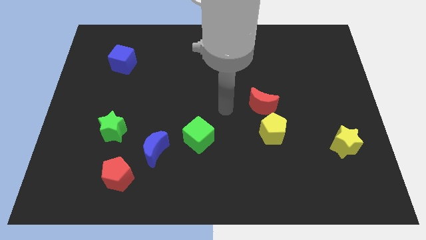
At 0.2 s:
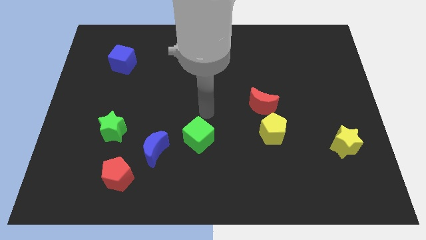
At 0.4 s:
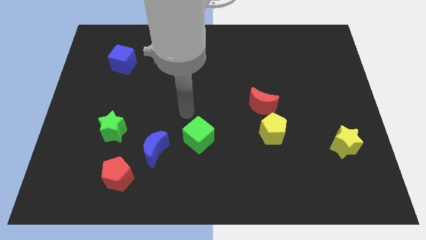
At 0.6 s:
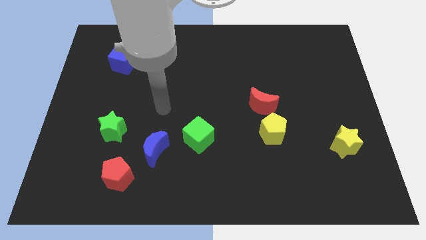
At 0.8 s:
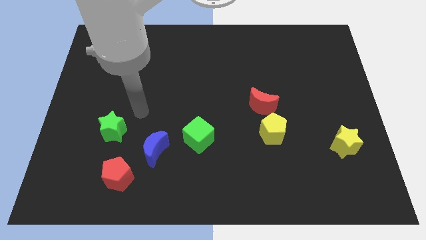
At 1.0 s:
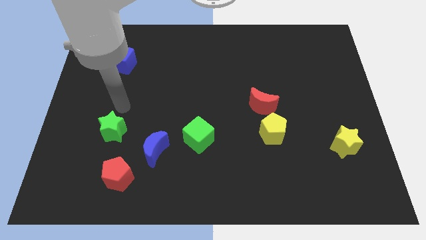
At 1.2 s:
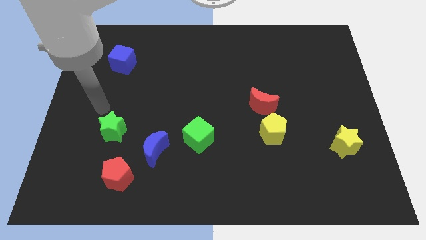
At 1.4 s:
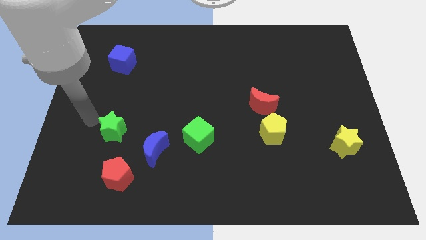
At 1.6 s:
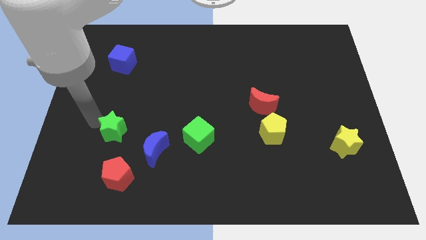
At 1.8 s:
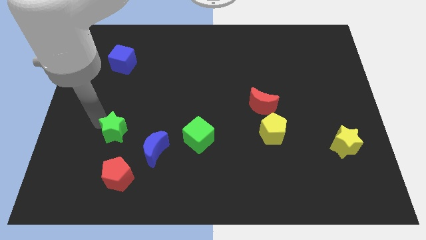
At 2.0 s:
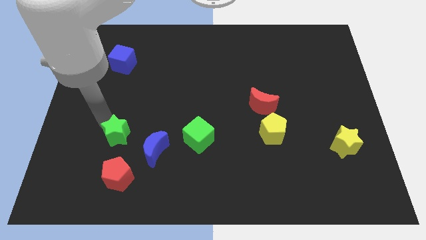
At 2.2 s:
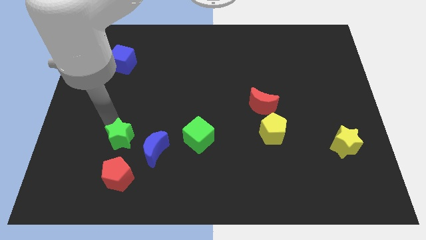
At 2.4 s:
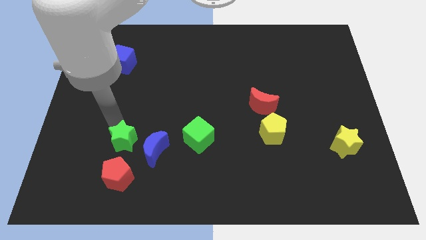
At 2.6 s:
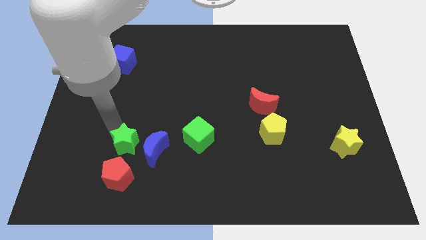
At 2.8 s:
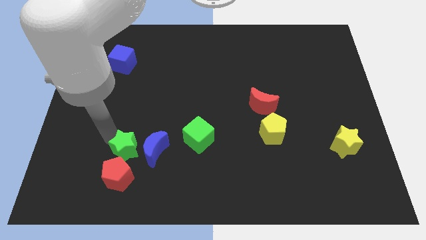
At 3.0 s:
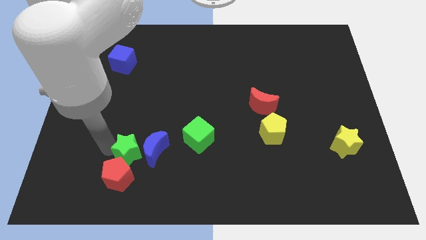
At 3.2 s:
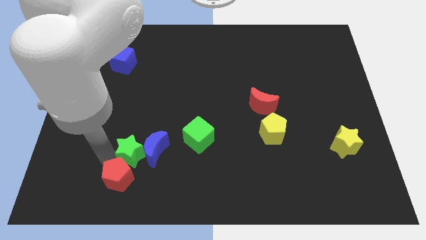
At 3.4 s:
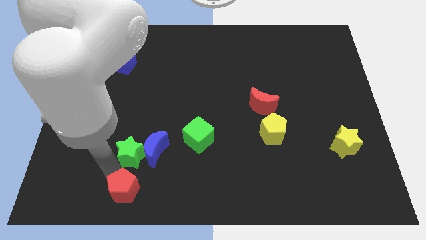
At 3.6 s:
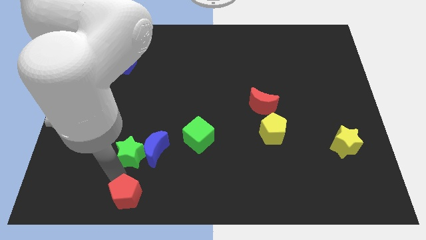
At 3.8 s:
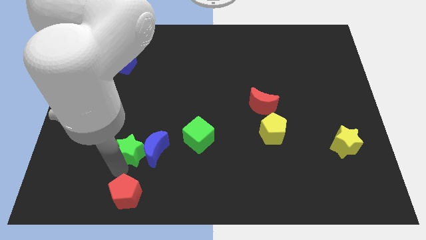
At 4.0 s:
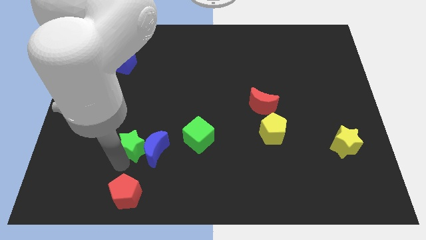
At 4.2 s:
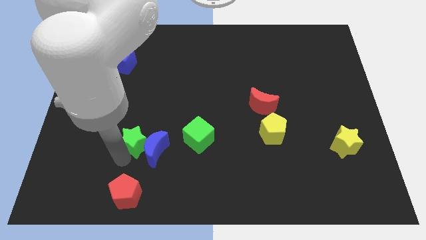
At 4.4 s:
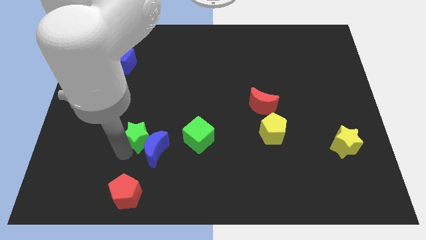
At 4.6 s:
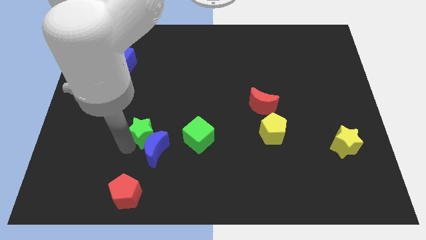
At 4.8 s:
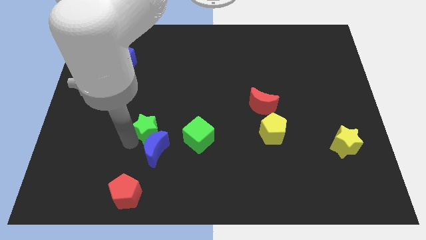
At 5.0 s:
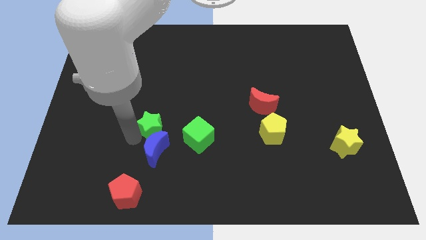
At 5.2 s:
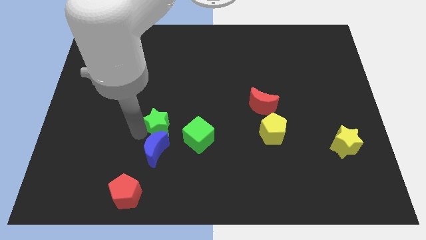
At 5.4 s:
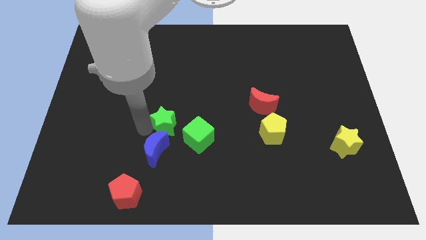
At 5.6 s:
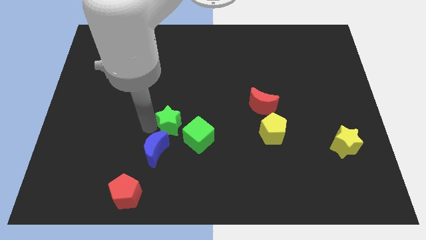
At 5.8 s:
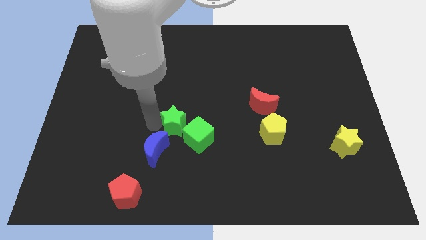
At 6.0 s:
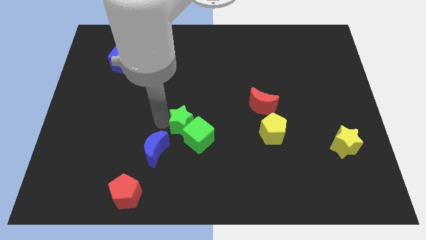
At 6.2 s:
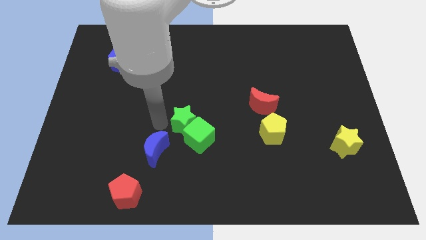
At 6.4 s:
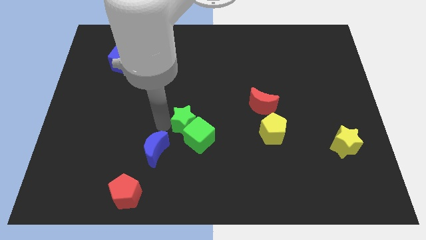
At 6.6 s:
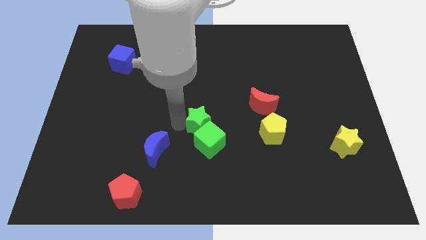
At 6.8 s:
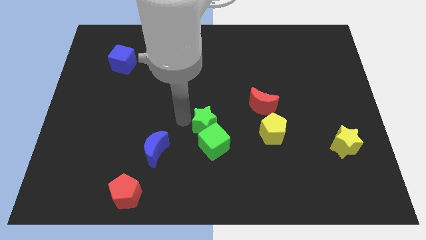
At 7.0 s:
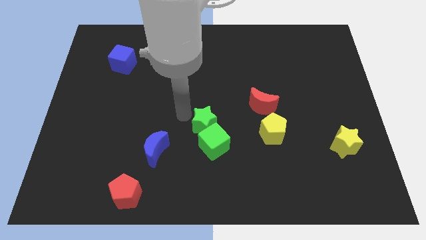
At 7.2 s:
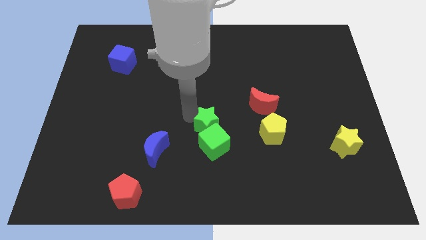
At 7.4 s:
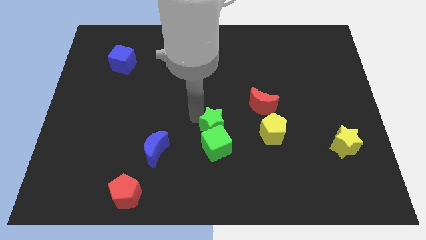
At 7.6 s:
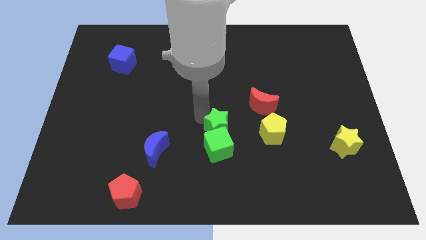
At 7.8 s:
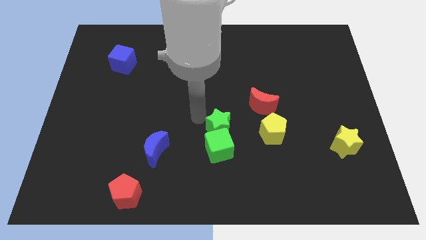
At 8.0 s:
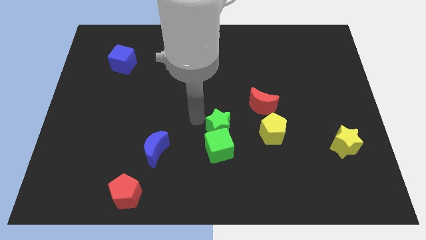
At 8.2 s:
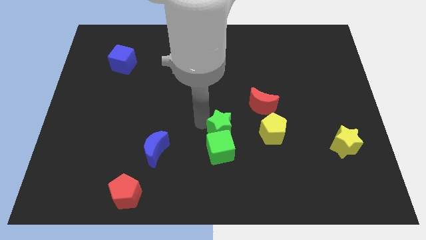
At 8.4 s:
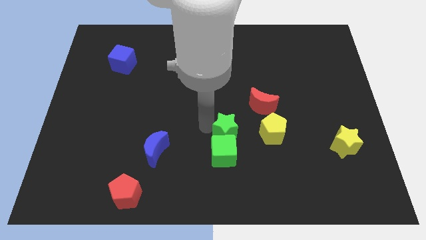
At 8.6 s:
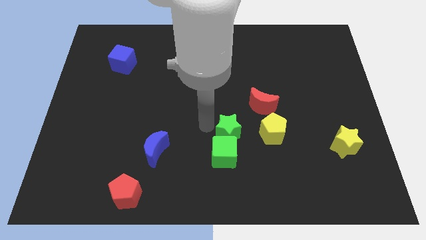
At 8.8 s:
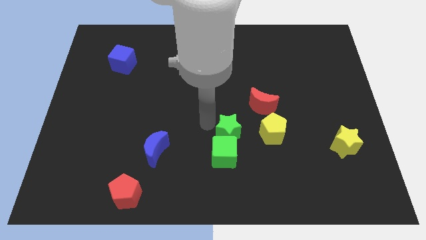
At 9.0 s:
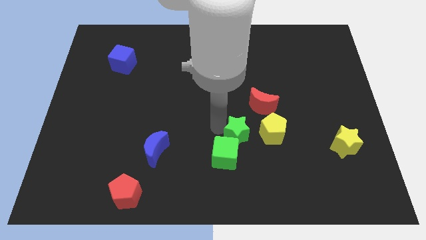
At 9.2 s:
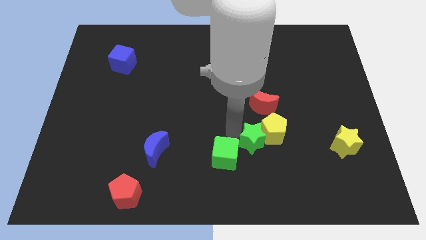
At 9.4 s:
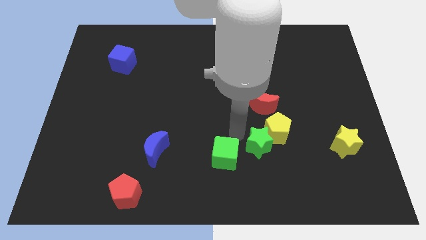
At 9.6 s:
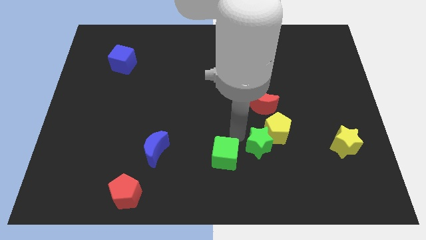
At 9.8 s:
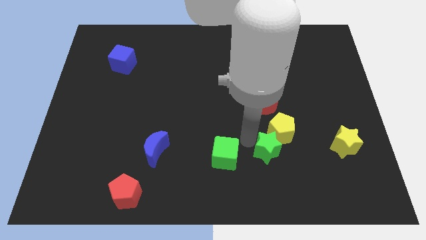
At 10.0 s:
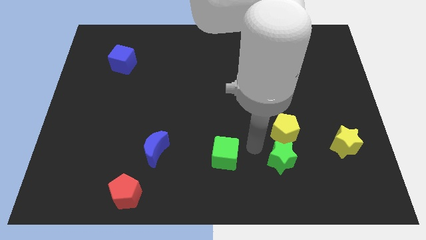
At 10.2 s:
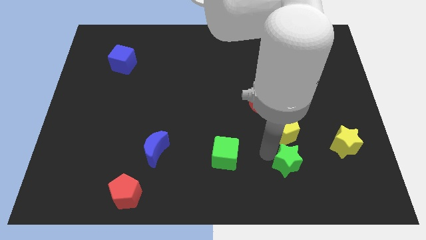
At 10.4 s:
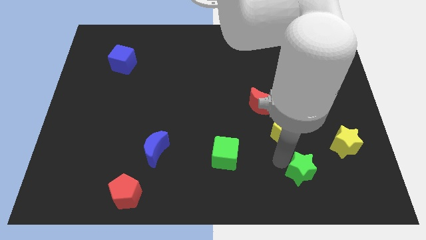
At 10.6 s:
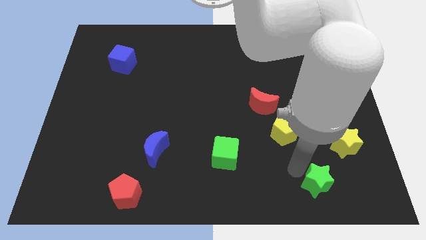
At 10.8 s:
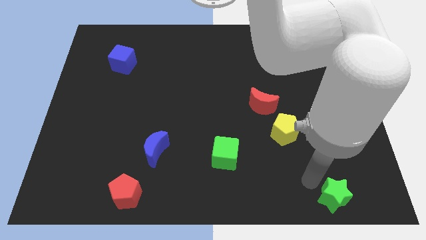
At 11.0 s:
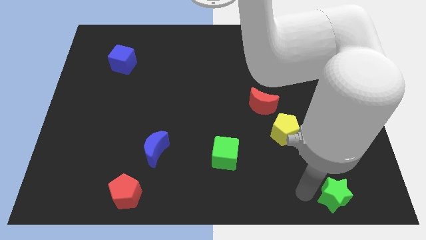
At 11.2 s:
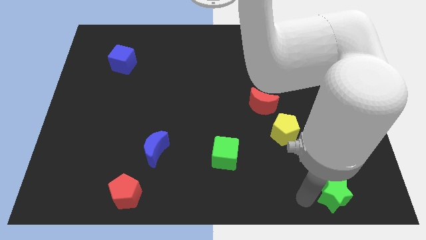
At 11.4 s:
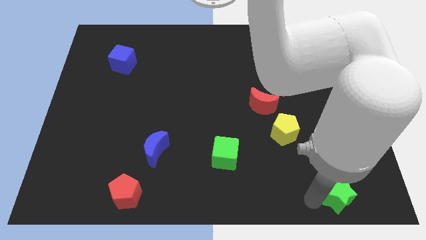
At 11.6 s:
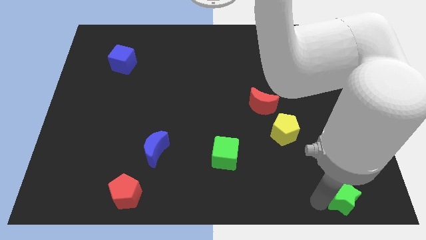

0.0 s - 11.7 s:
put the green star to the bottom right of the board

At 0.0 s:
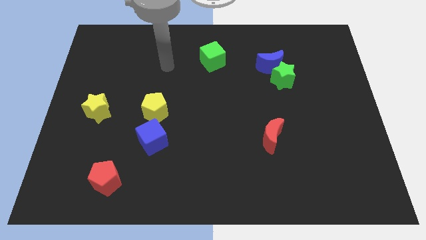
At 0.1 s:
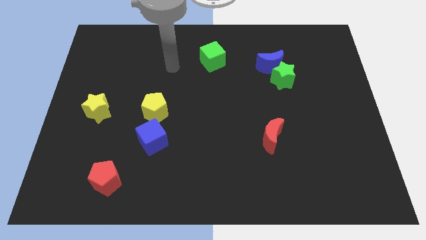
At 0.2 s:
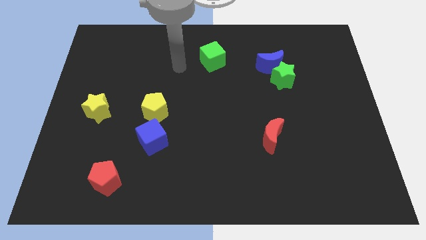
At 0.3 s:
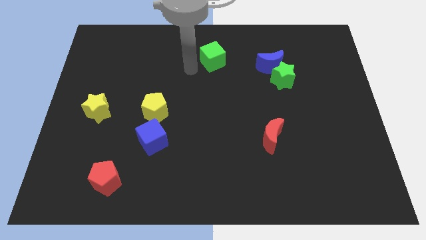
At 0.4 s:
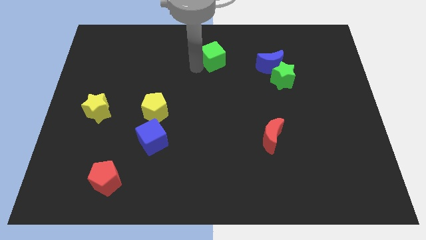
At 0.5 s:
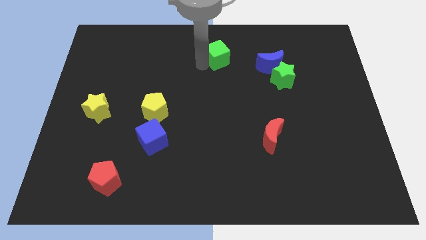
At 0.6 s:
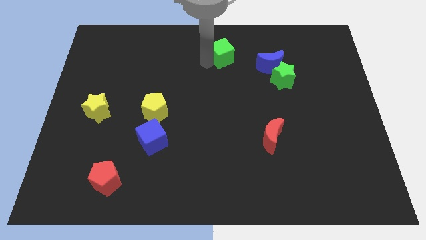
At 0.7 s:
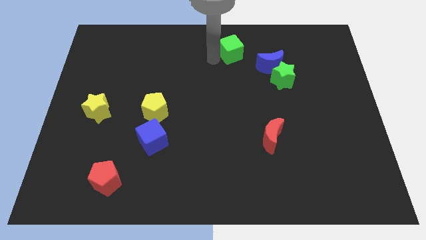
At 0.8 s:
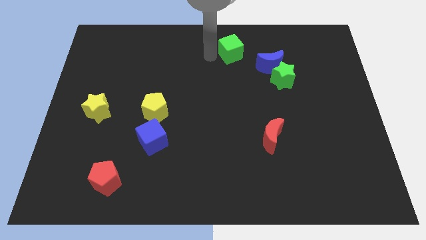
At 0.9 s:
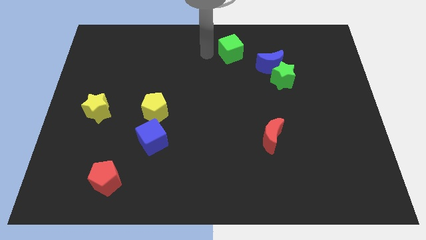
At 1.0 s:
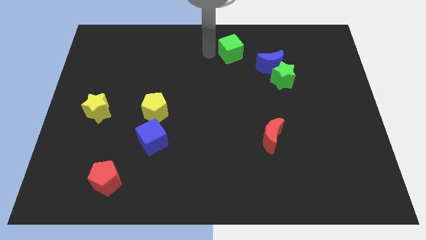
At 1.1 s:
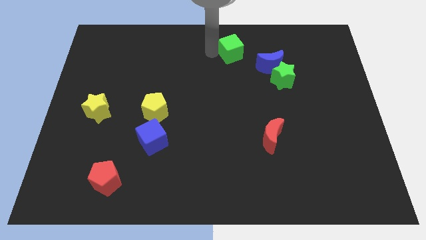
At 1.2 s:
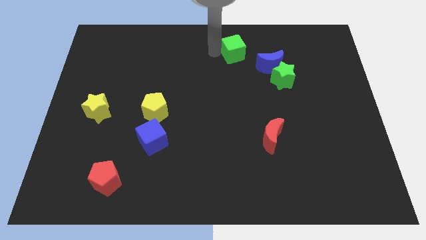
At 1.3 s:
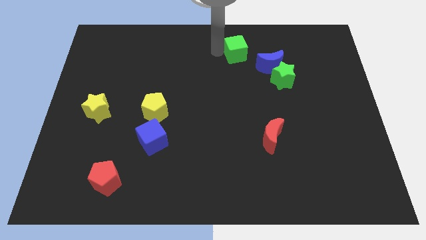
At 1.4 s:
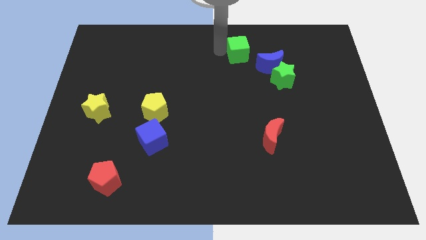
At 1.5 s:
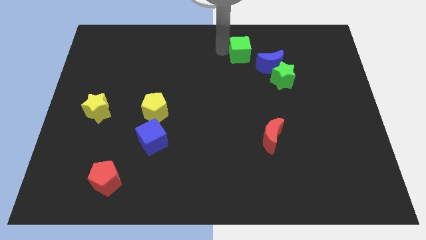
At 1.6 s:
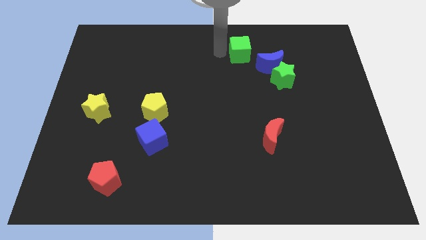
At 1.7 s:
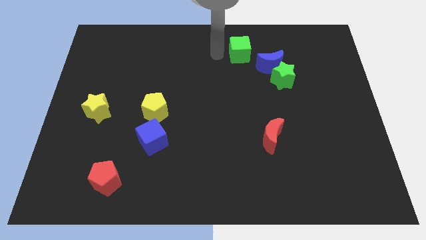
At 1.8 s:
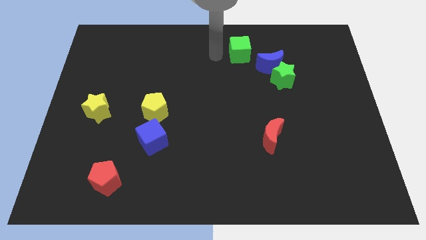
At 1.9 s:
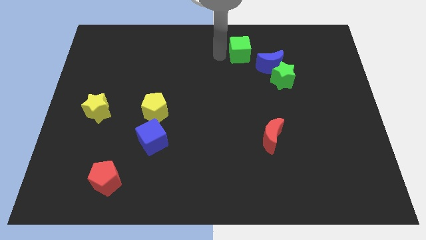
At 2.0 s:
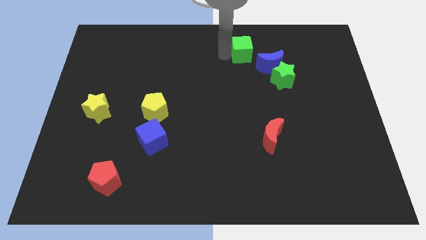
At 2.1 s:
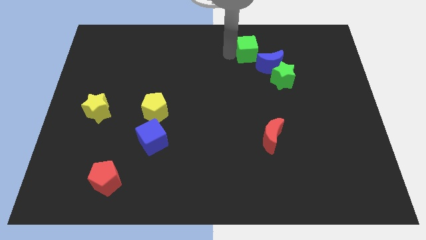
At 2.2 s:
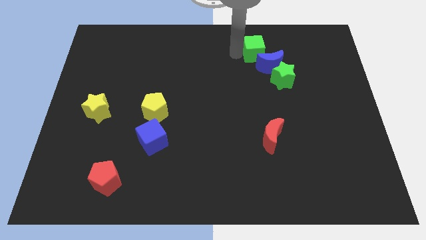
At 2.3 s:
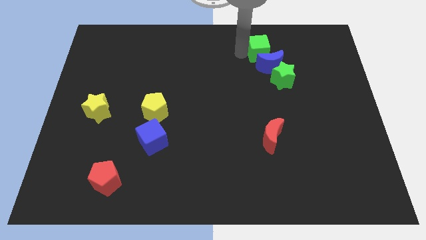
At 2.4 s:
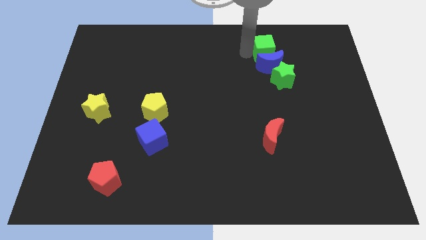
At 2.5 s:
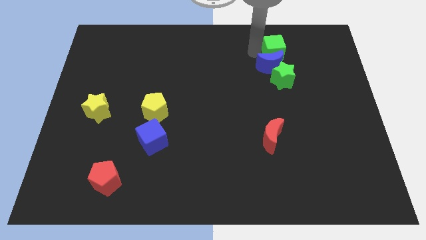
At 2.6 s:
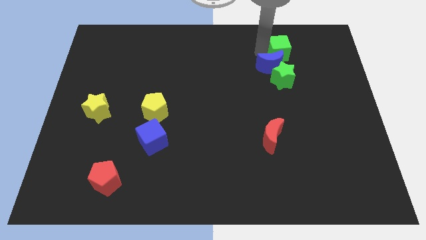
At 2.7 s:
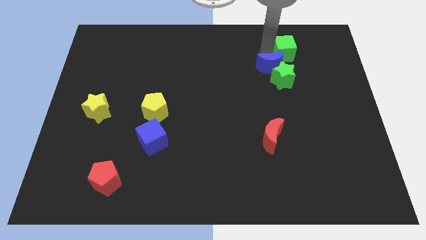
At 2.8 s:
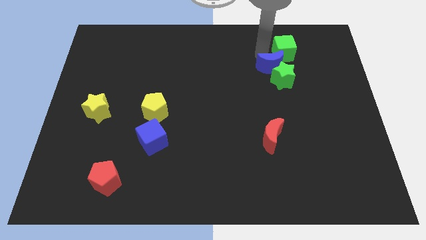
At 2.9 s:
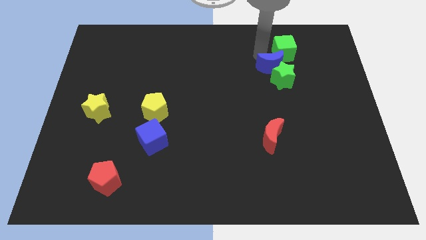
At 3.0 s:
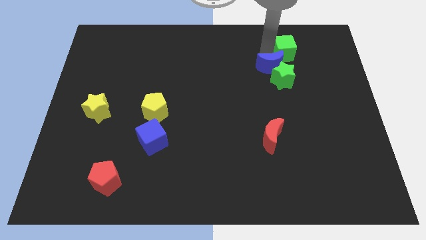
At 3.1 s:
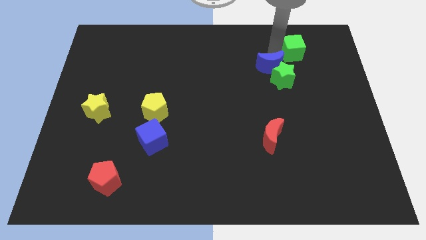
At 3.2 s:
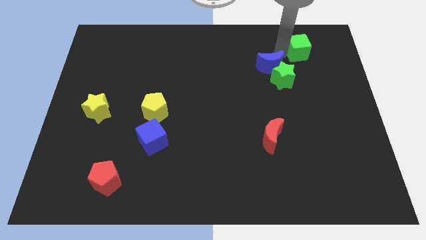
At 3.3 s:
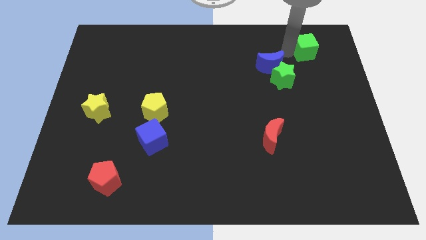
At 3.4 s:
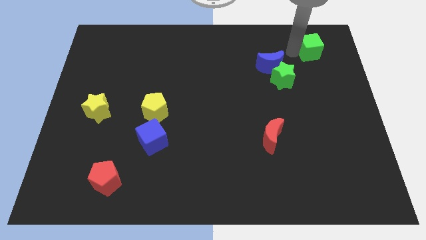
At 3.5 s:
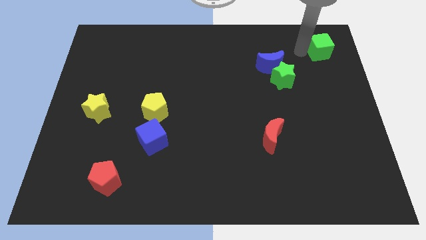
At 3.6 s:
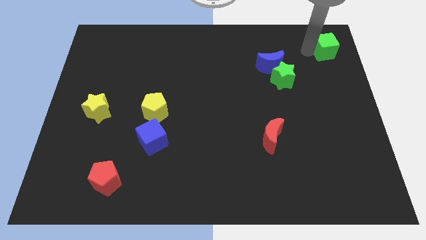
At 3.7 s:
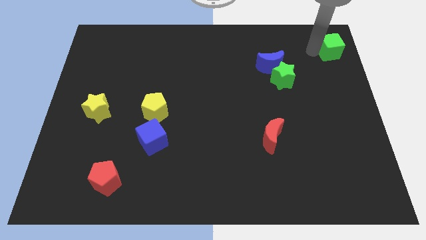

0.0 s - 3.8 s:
slide the green cube to the upper right corner
